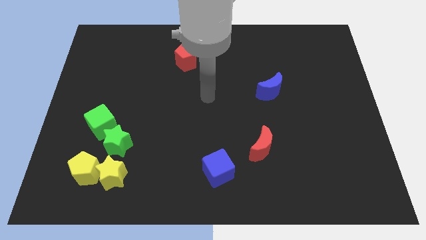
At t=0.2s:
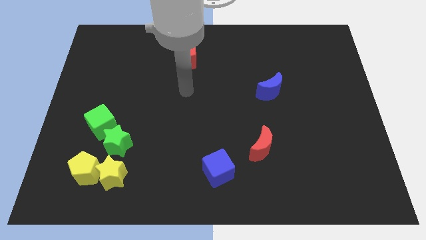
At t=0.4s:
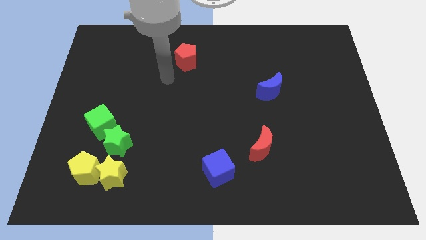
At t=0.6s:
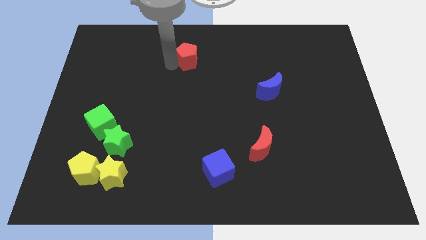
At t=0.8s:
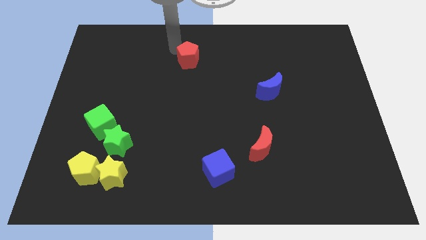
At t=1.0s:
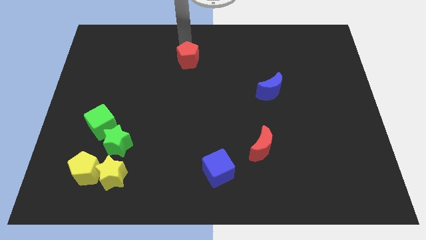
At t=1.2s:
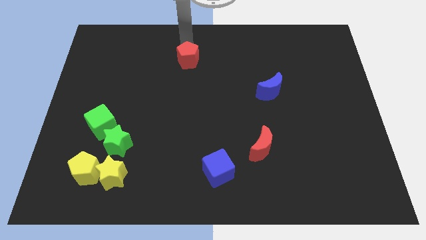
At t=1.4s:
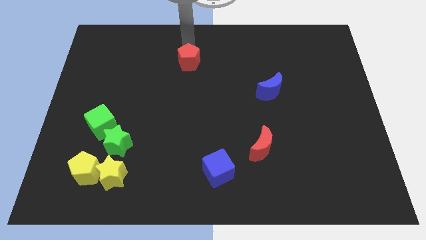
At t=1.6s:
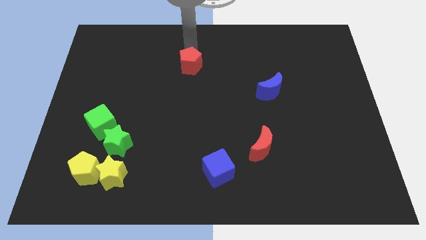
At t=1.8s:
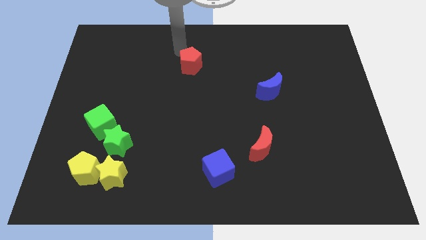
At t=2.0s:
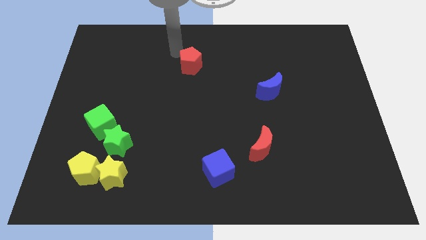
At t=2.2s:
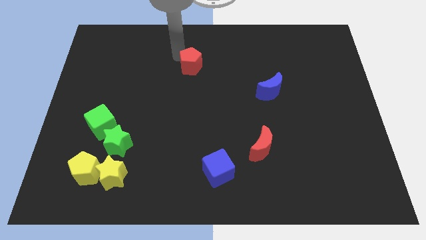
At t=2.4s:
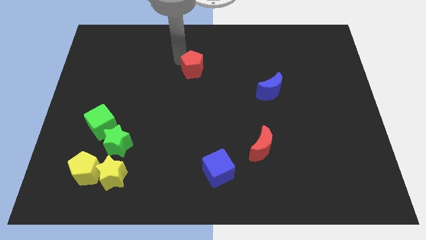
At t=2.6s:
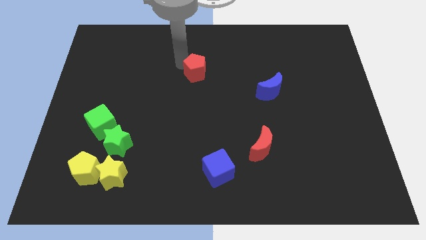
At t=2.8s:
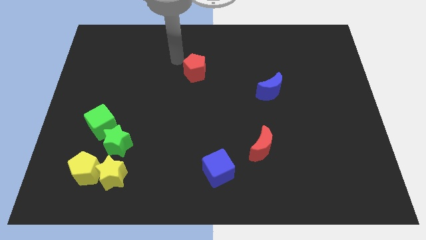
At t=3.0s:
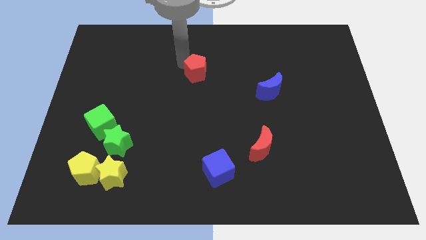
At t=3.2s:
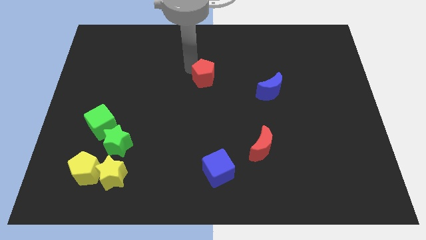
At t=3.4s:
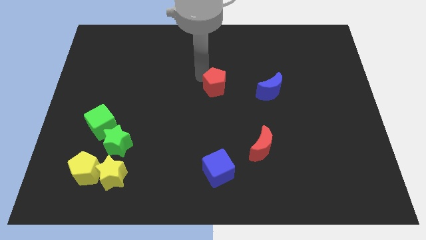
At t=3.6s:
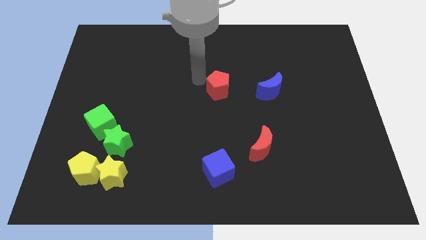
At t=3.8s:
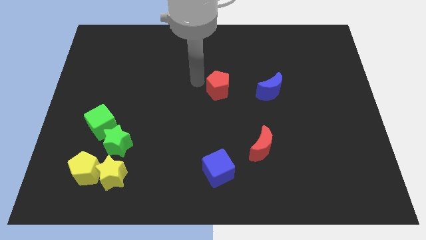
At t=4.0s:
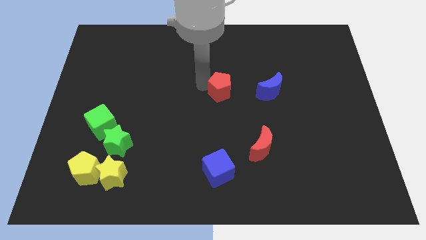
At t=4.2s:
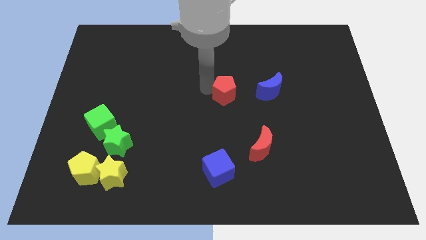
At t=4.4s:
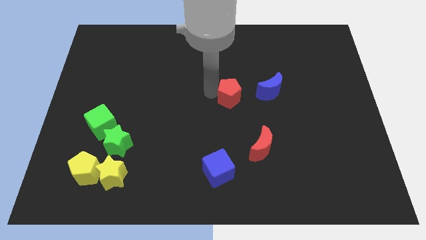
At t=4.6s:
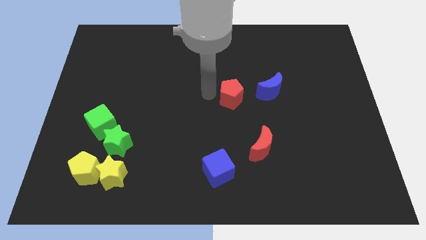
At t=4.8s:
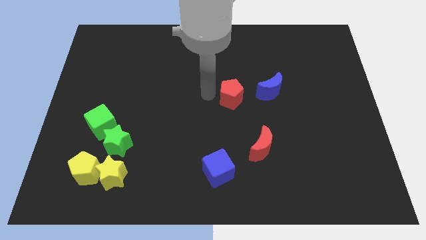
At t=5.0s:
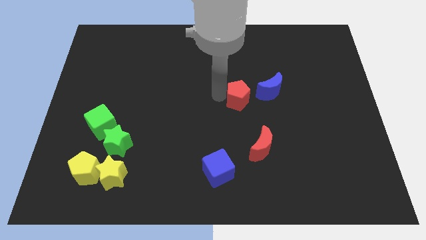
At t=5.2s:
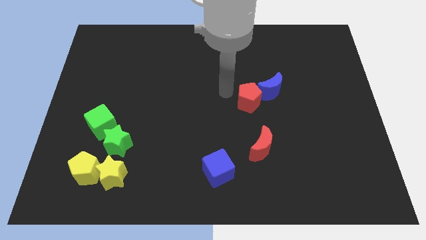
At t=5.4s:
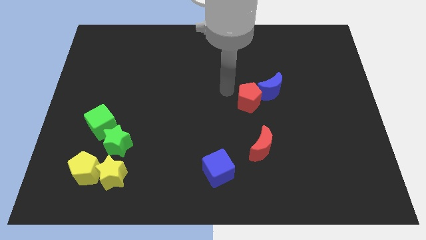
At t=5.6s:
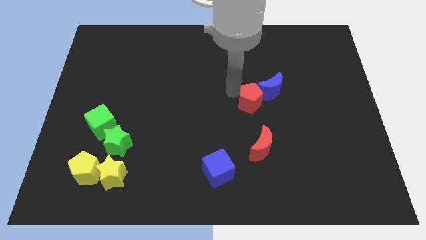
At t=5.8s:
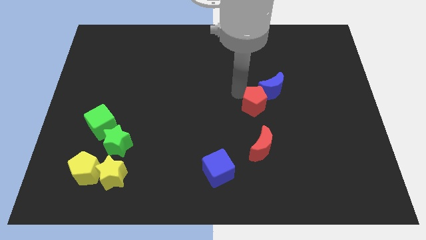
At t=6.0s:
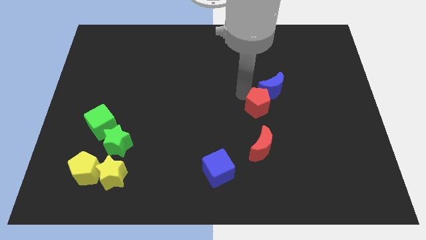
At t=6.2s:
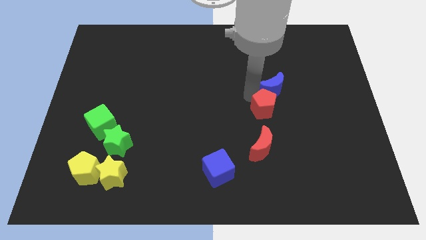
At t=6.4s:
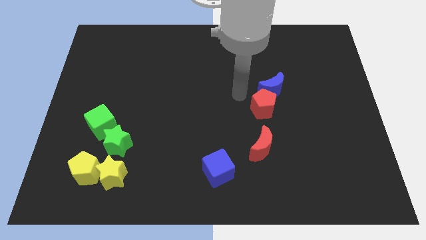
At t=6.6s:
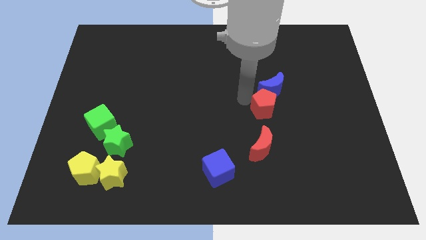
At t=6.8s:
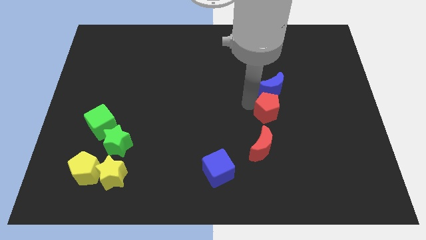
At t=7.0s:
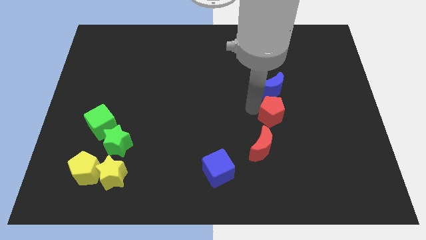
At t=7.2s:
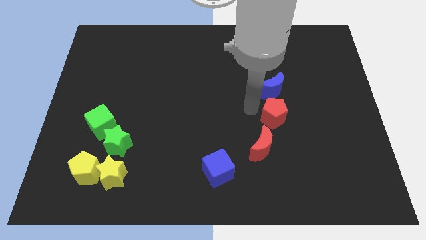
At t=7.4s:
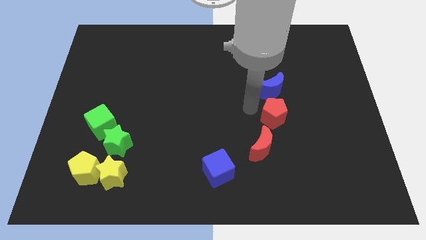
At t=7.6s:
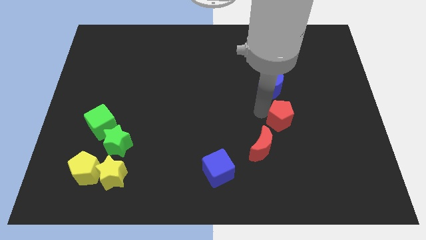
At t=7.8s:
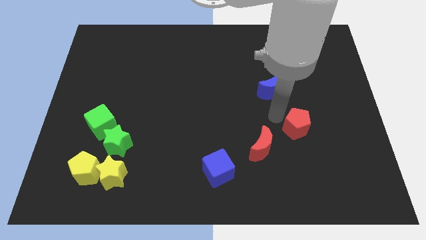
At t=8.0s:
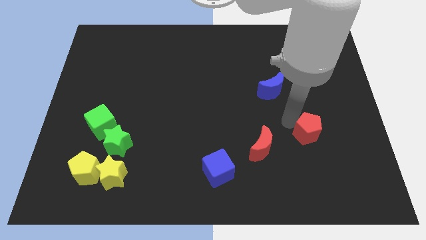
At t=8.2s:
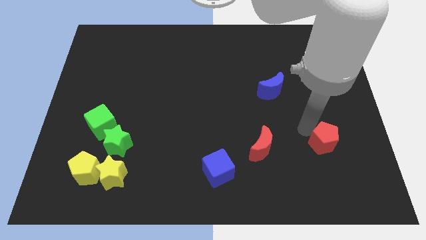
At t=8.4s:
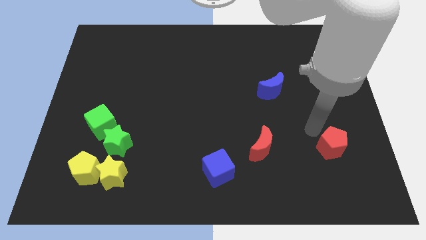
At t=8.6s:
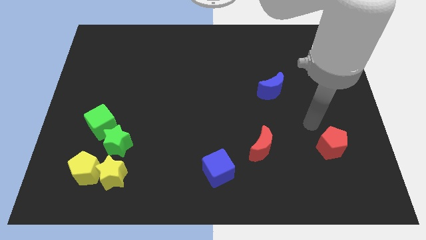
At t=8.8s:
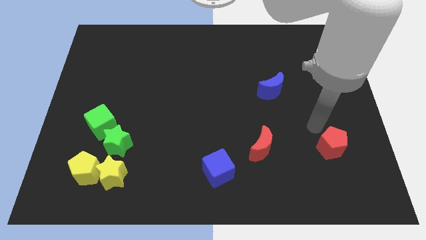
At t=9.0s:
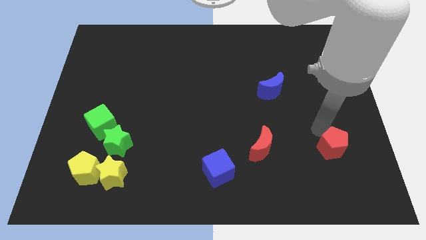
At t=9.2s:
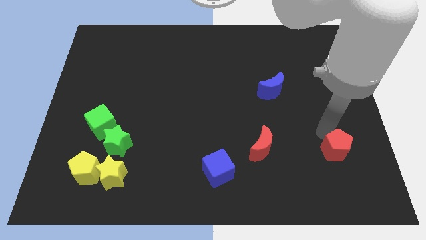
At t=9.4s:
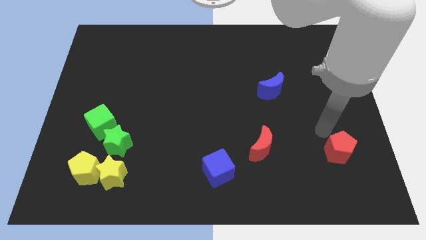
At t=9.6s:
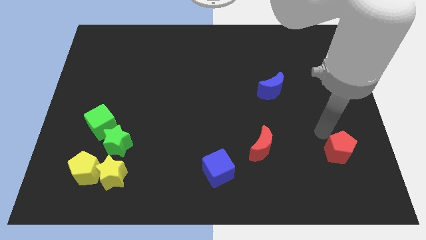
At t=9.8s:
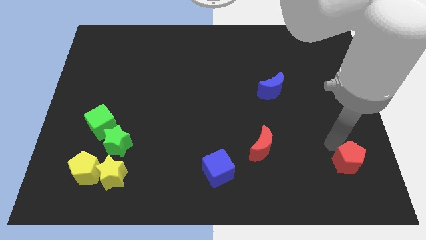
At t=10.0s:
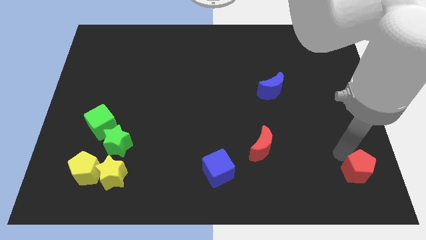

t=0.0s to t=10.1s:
slide the red pentagon to the bottom right of the board

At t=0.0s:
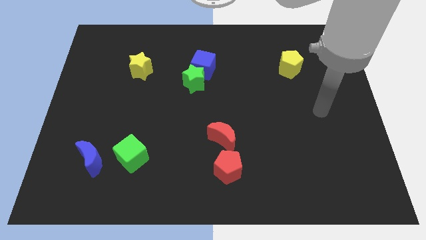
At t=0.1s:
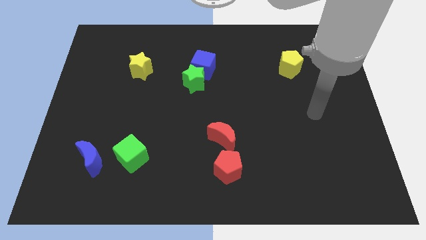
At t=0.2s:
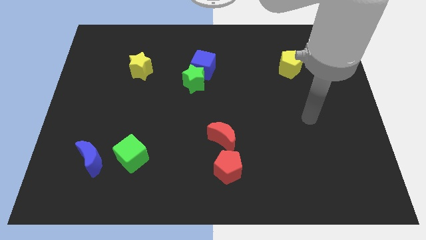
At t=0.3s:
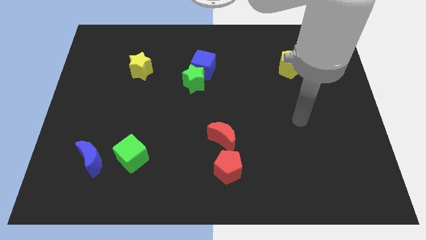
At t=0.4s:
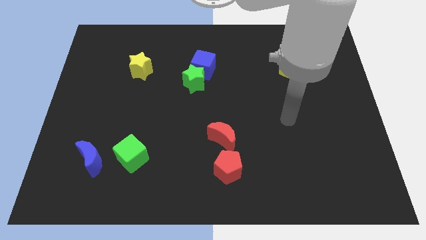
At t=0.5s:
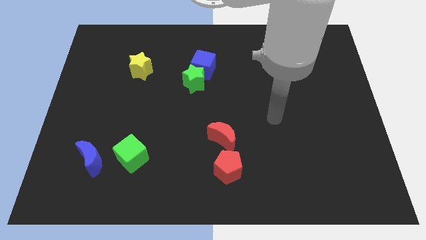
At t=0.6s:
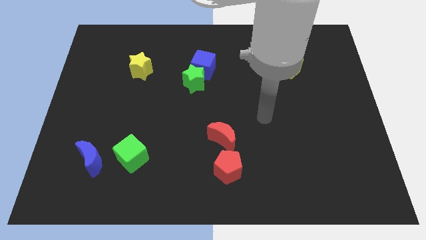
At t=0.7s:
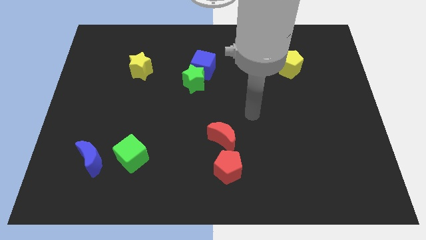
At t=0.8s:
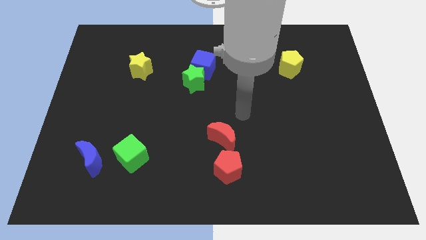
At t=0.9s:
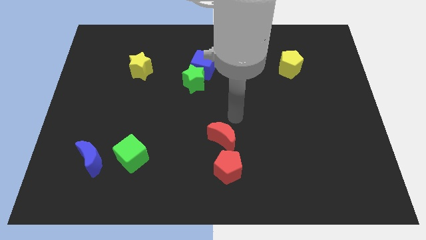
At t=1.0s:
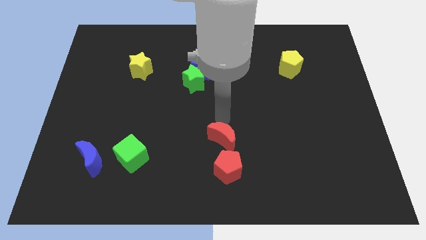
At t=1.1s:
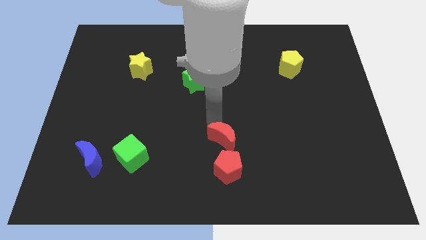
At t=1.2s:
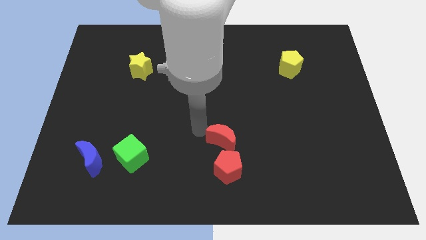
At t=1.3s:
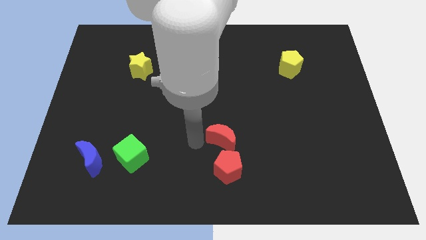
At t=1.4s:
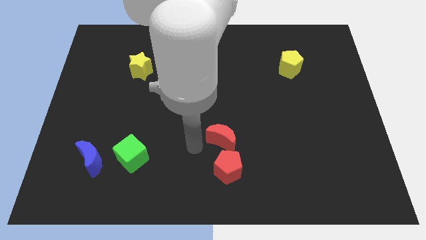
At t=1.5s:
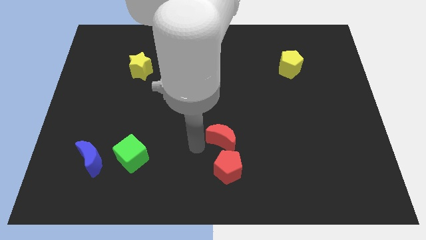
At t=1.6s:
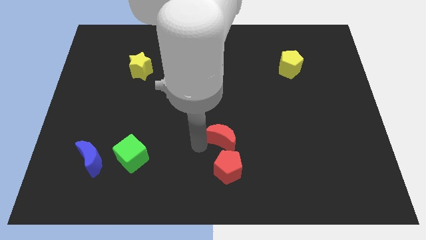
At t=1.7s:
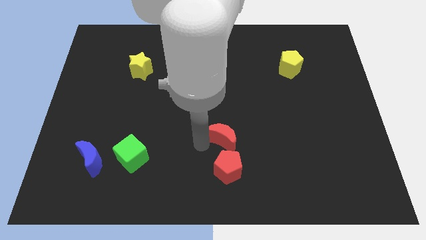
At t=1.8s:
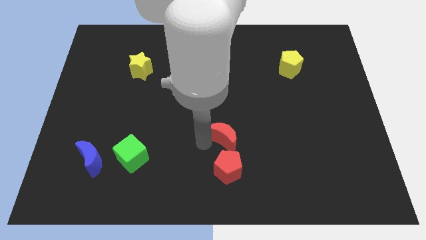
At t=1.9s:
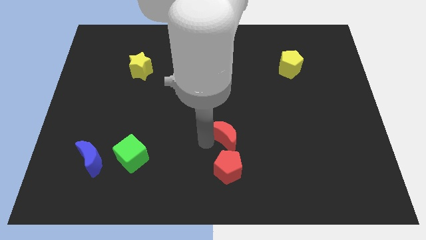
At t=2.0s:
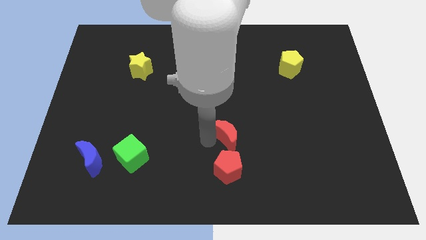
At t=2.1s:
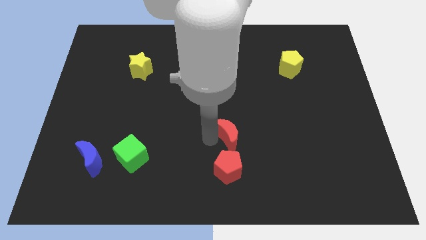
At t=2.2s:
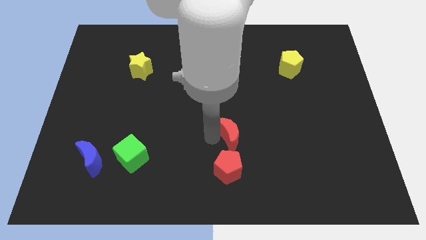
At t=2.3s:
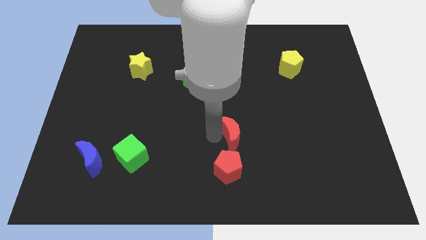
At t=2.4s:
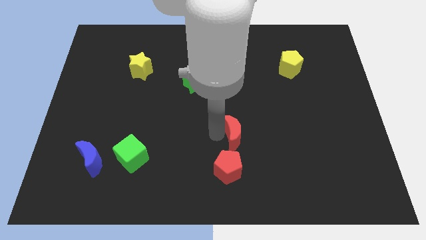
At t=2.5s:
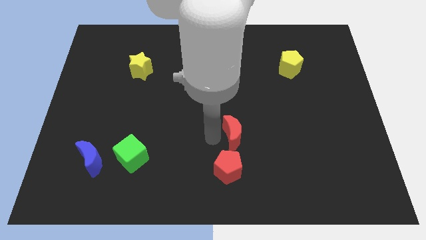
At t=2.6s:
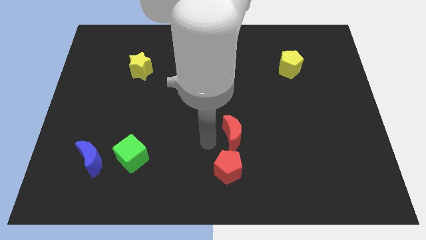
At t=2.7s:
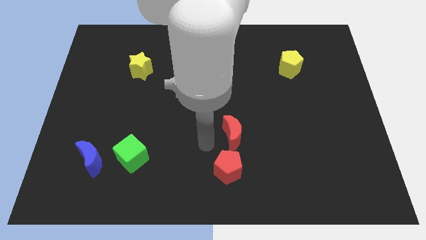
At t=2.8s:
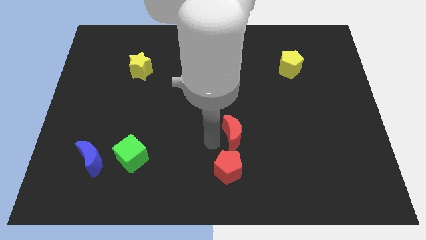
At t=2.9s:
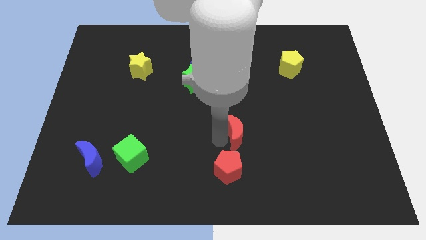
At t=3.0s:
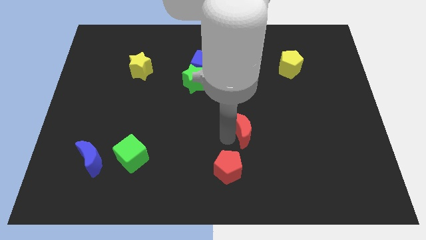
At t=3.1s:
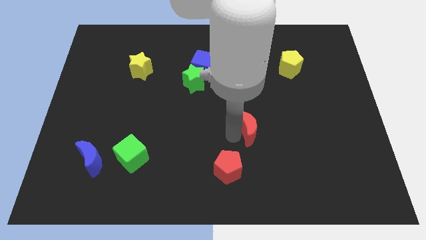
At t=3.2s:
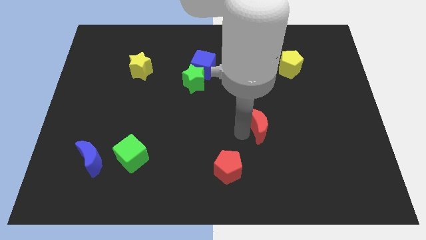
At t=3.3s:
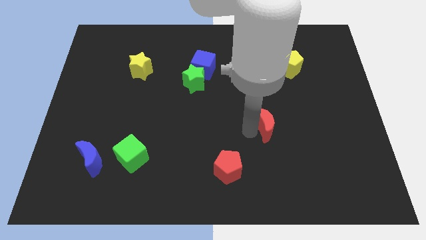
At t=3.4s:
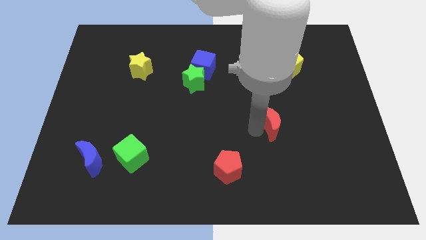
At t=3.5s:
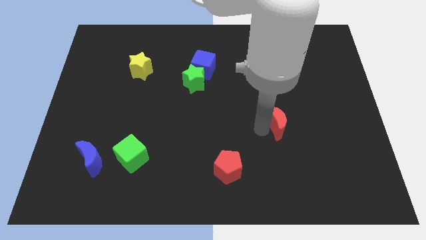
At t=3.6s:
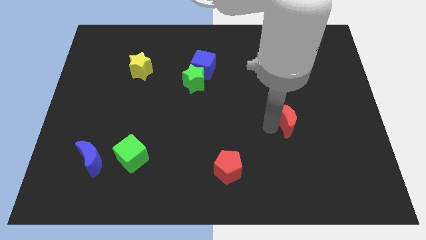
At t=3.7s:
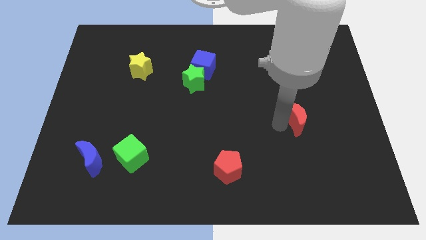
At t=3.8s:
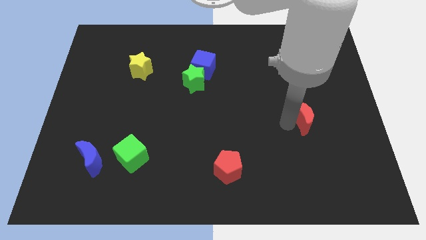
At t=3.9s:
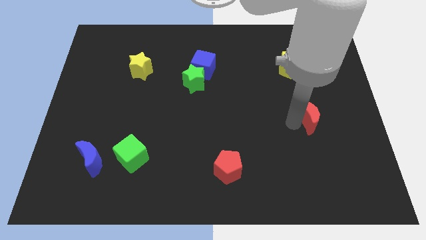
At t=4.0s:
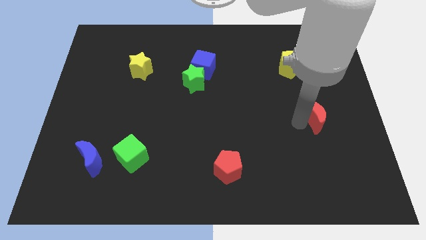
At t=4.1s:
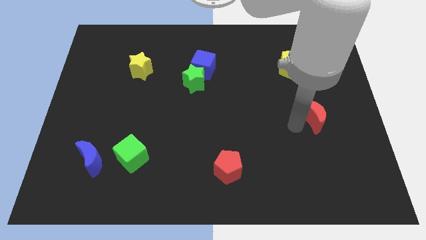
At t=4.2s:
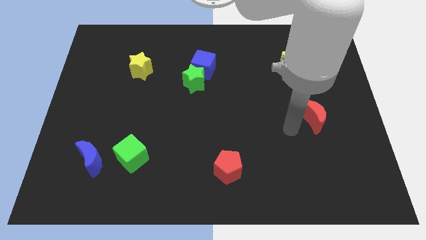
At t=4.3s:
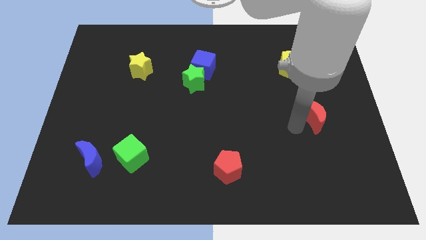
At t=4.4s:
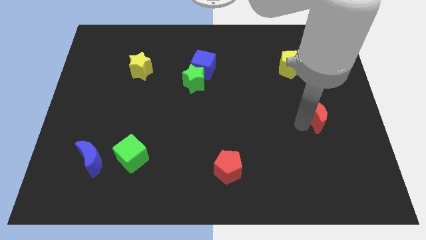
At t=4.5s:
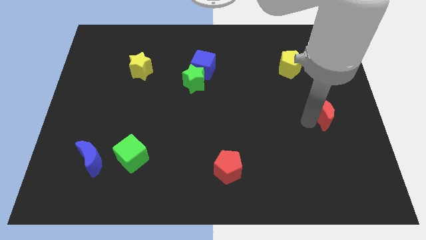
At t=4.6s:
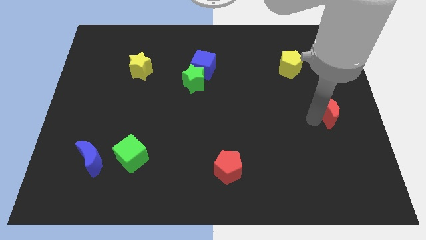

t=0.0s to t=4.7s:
move the red moon to the right side
